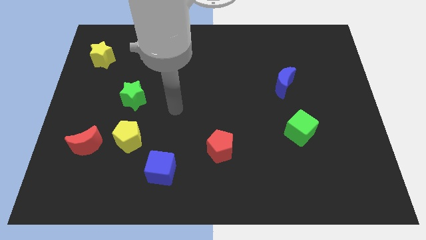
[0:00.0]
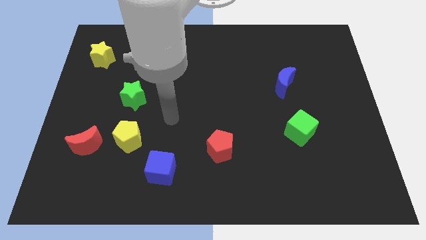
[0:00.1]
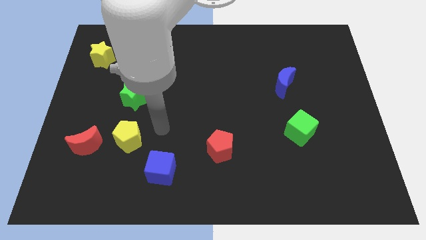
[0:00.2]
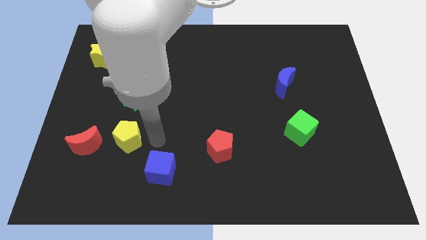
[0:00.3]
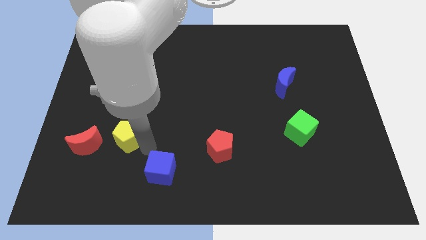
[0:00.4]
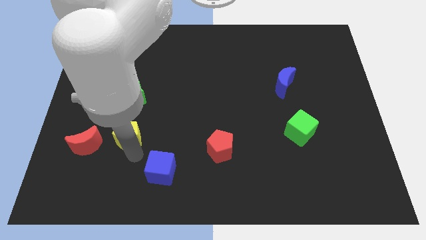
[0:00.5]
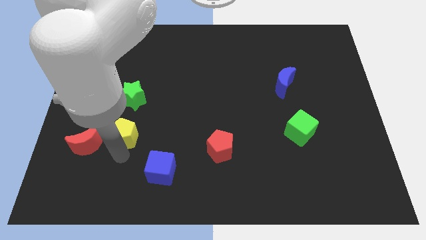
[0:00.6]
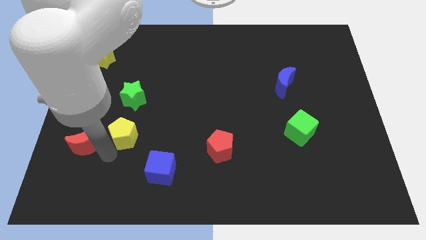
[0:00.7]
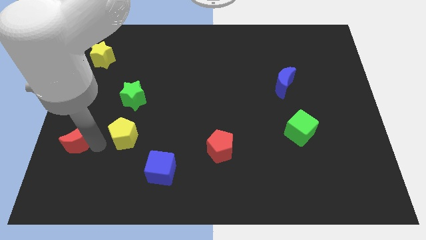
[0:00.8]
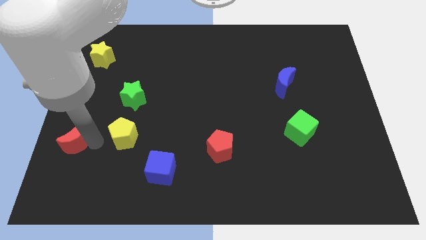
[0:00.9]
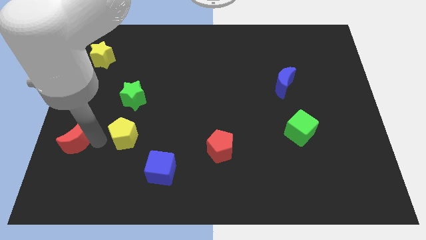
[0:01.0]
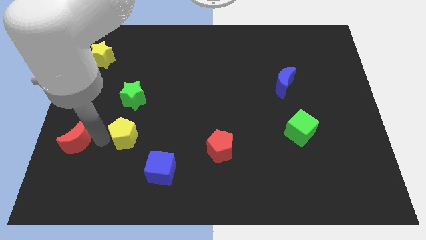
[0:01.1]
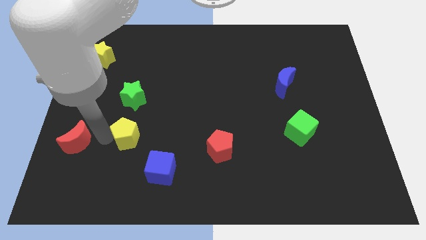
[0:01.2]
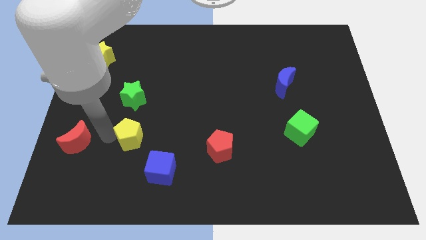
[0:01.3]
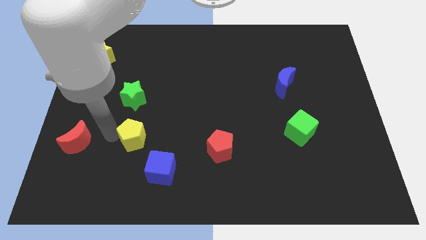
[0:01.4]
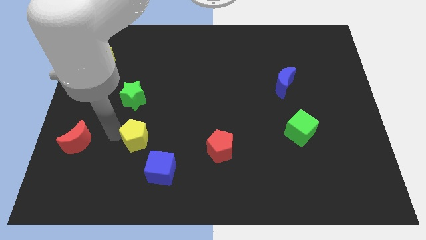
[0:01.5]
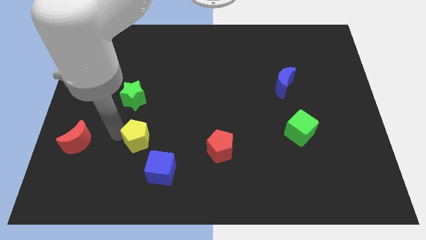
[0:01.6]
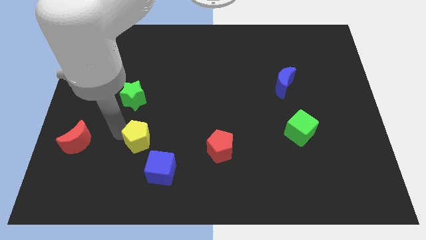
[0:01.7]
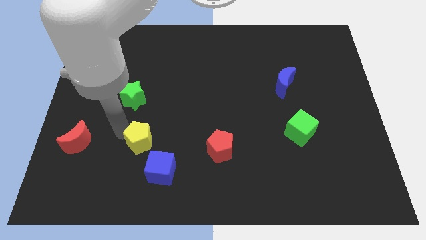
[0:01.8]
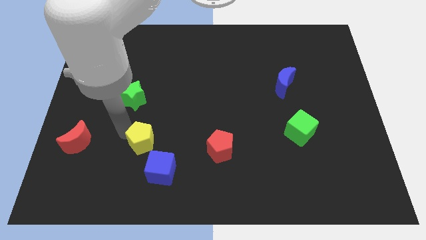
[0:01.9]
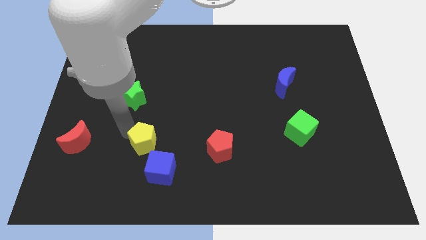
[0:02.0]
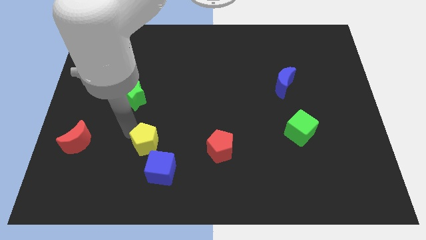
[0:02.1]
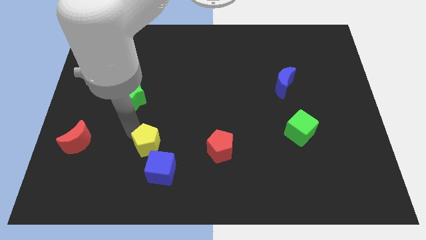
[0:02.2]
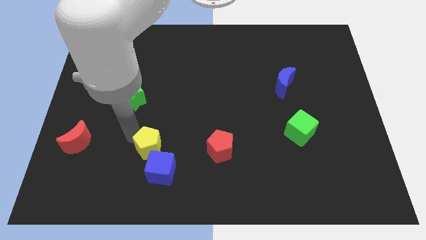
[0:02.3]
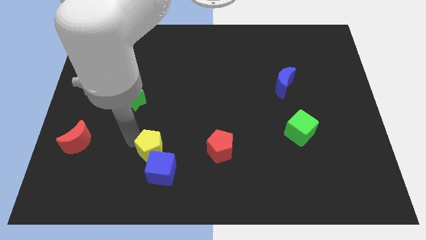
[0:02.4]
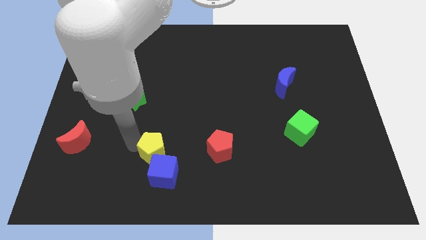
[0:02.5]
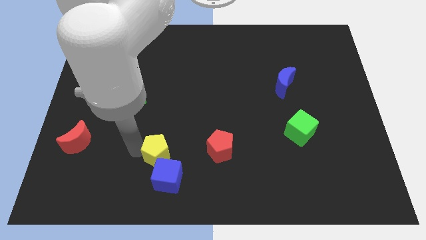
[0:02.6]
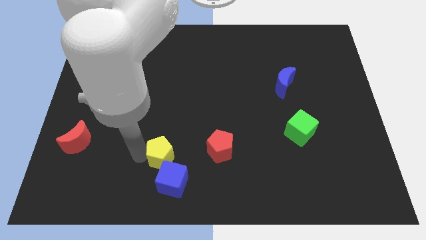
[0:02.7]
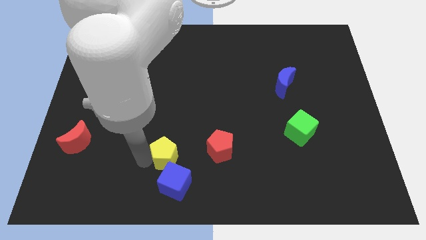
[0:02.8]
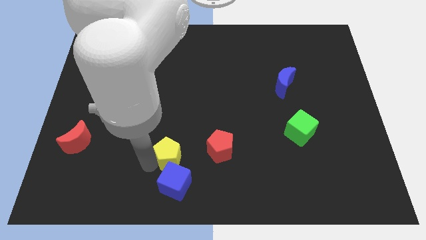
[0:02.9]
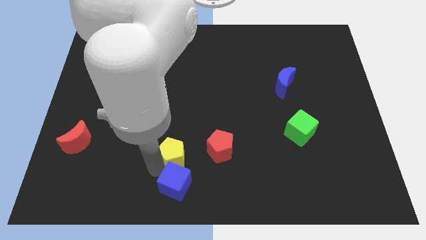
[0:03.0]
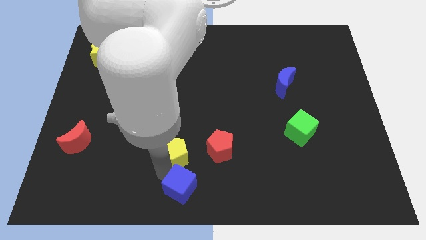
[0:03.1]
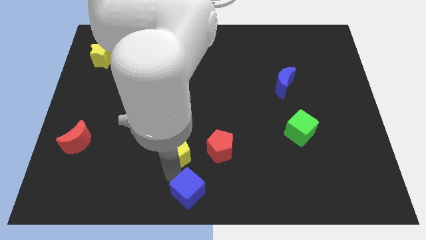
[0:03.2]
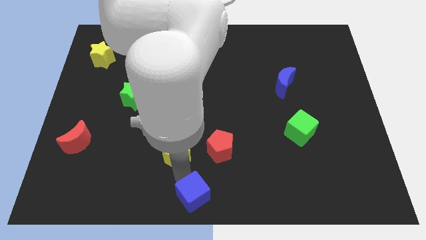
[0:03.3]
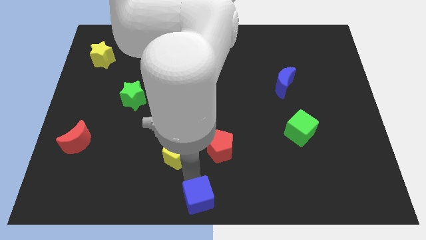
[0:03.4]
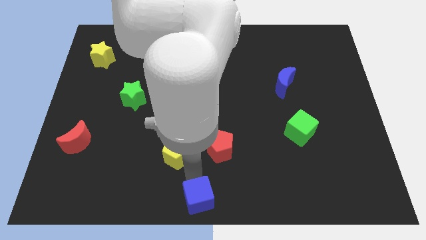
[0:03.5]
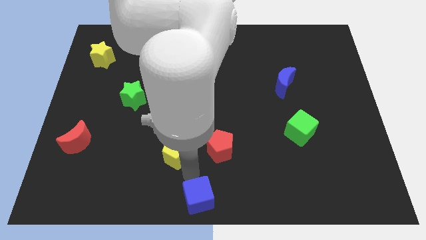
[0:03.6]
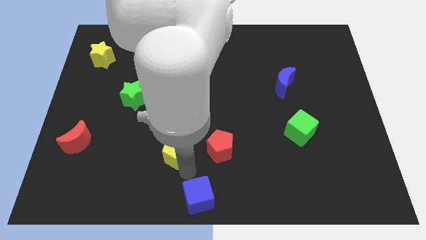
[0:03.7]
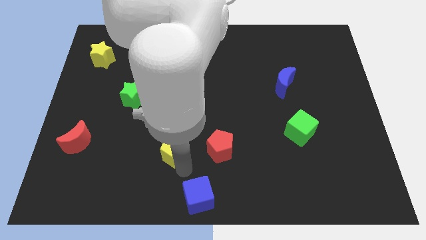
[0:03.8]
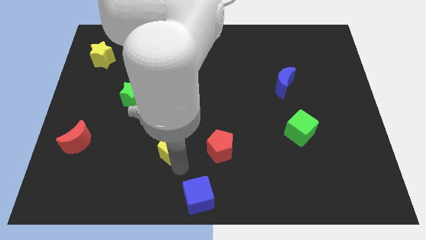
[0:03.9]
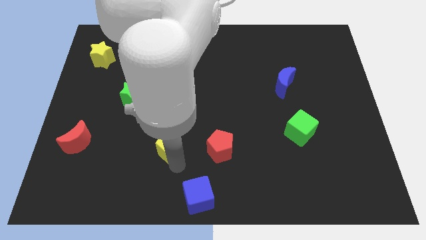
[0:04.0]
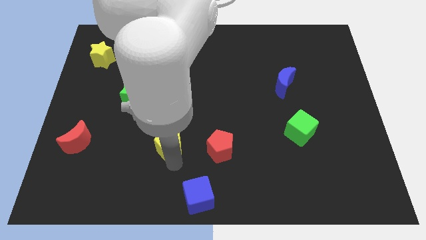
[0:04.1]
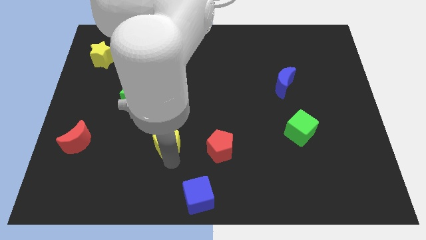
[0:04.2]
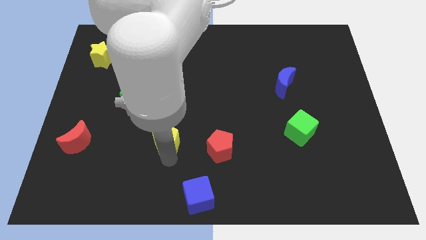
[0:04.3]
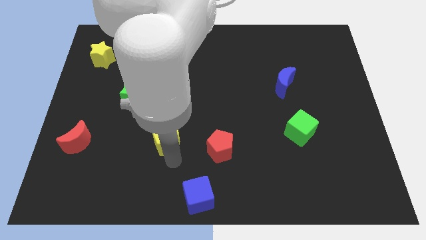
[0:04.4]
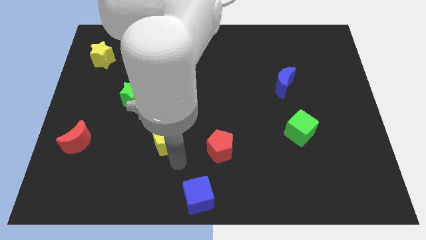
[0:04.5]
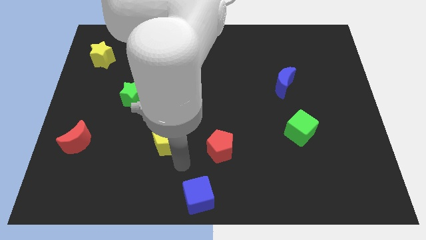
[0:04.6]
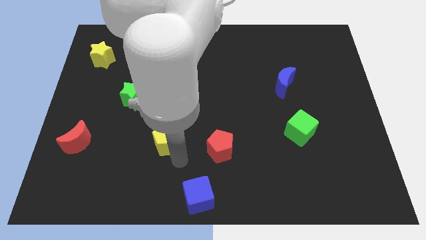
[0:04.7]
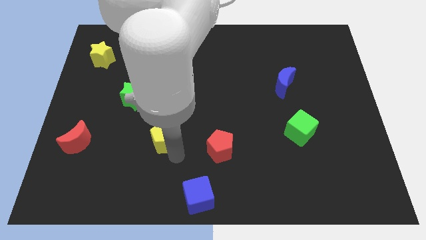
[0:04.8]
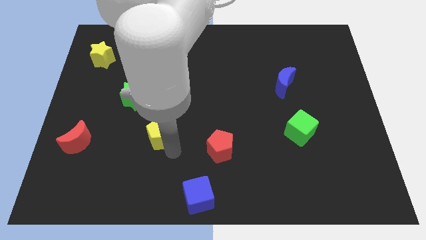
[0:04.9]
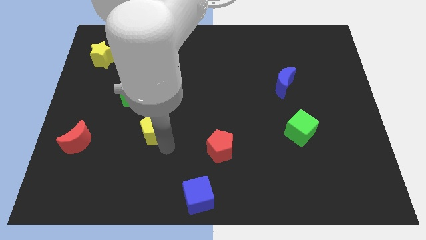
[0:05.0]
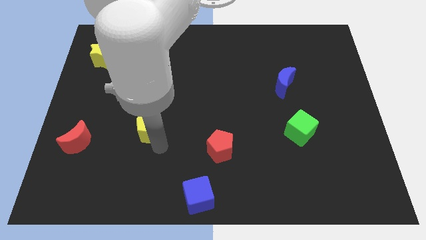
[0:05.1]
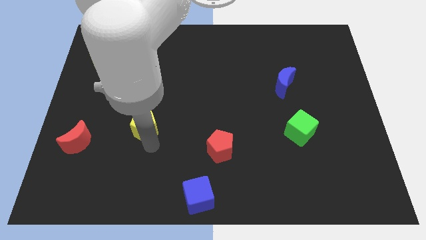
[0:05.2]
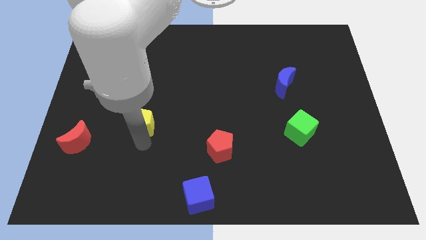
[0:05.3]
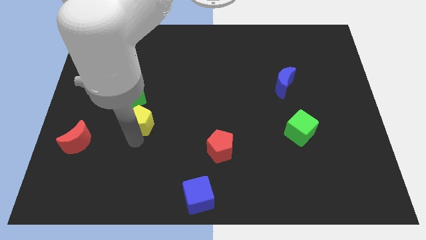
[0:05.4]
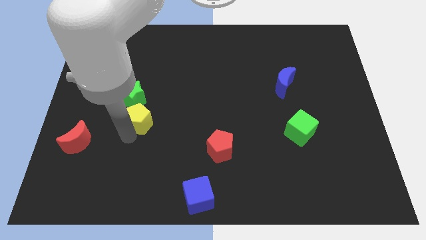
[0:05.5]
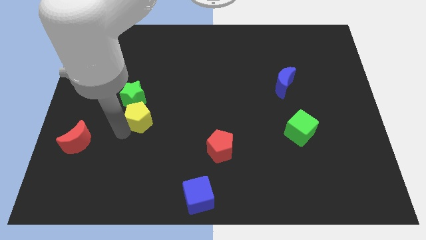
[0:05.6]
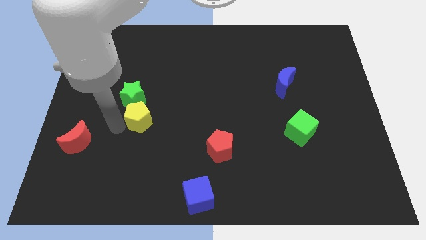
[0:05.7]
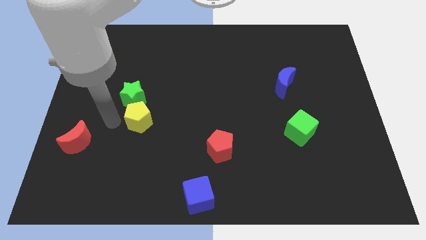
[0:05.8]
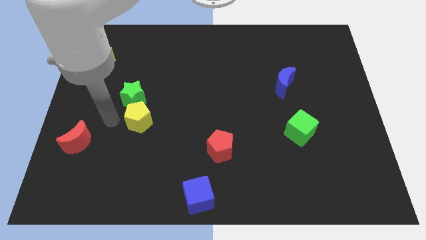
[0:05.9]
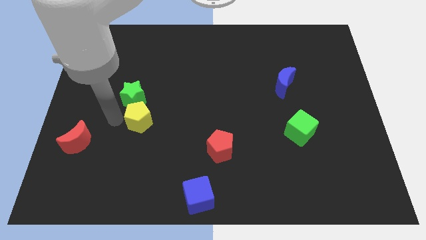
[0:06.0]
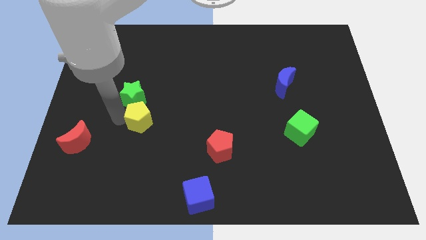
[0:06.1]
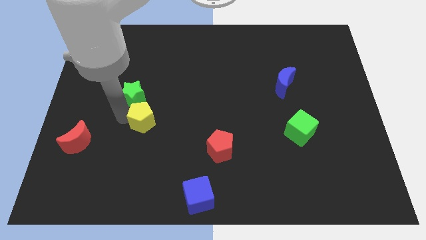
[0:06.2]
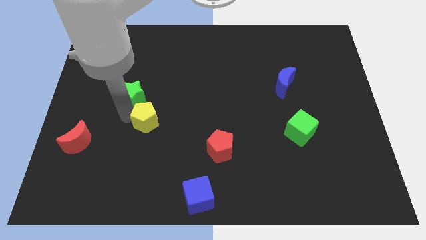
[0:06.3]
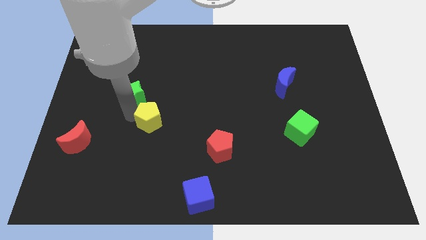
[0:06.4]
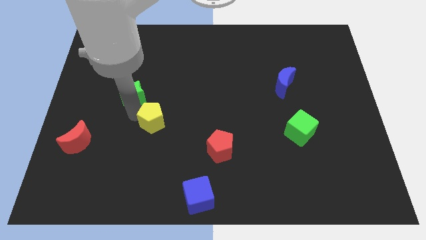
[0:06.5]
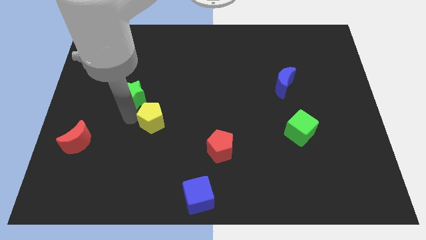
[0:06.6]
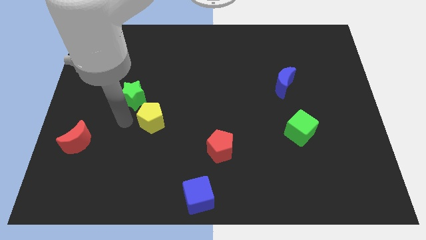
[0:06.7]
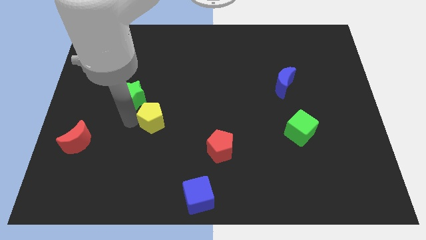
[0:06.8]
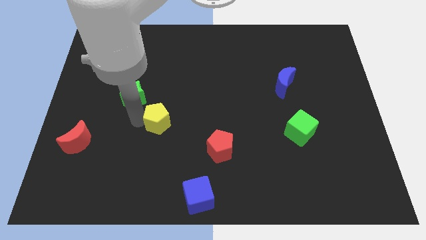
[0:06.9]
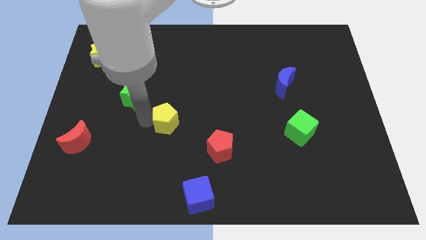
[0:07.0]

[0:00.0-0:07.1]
move the yellow pentagon to the center
